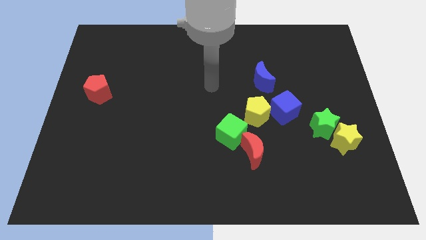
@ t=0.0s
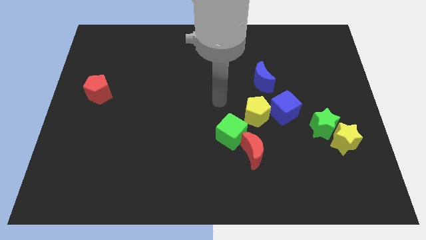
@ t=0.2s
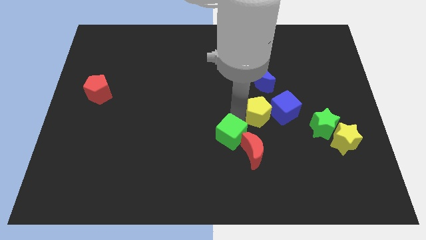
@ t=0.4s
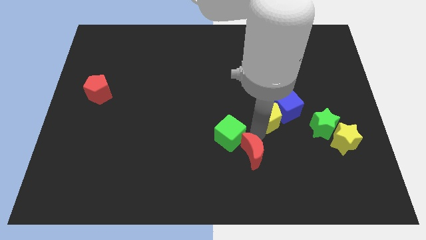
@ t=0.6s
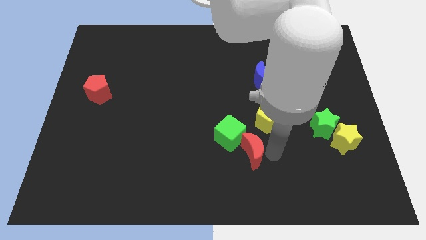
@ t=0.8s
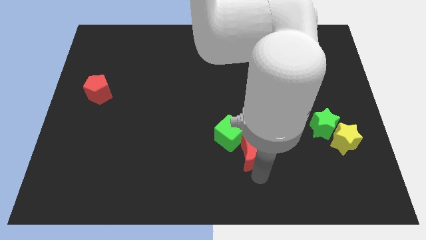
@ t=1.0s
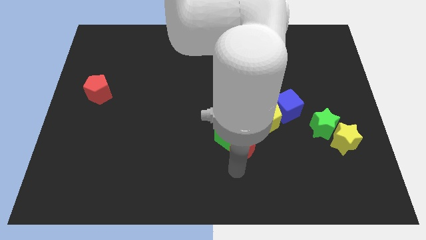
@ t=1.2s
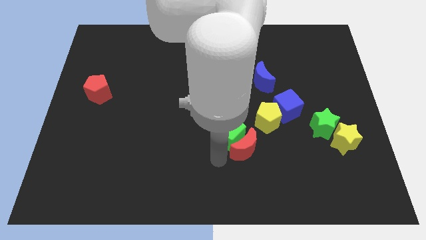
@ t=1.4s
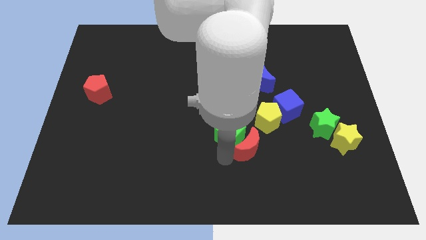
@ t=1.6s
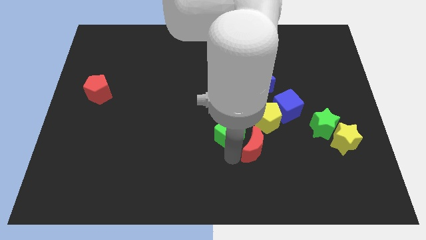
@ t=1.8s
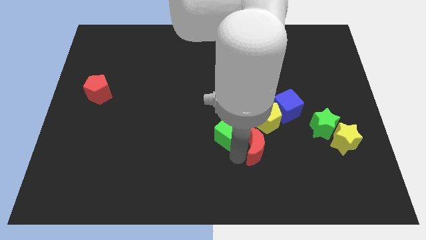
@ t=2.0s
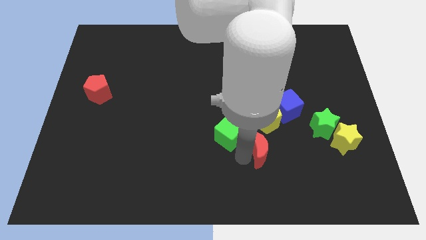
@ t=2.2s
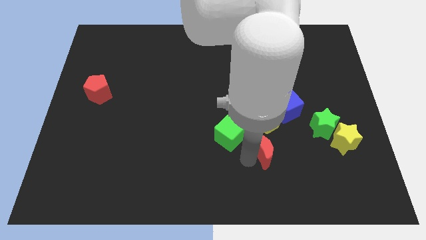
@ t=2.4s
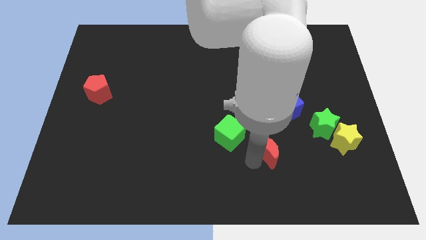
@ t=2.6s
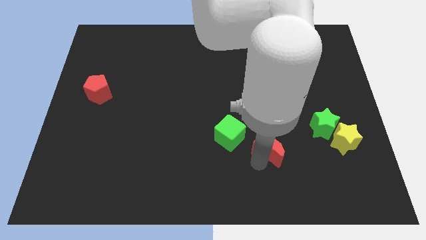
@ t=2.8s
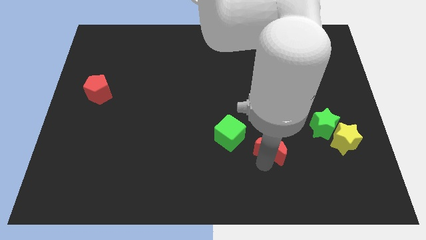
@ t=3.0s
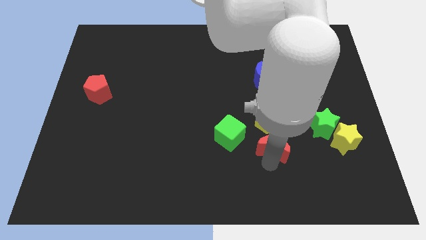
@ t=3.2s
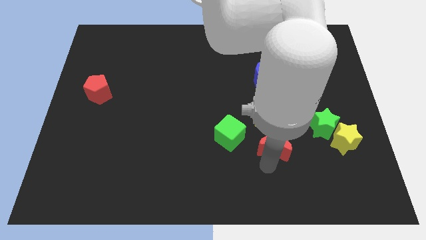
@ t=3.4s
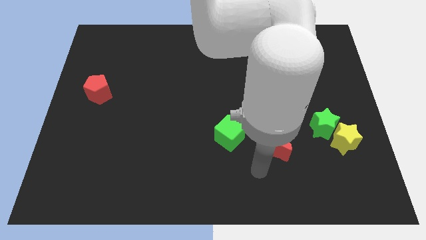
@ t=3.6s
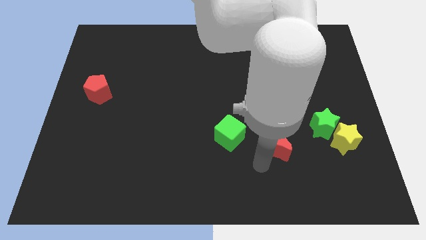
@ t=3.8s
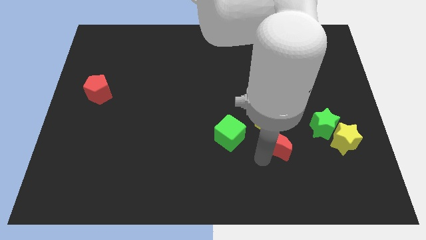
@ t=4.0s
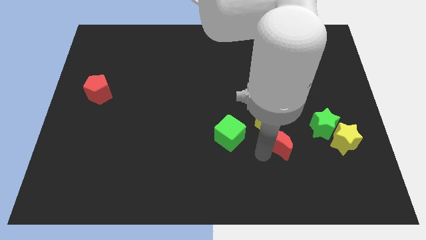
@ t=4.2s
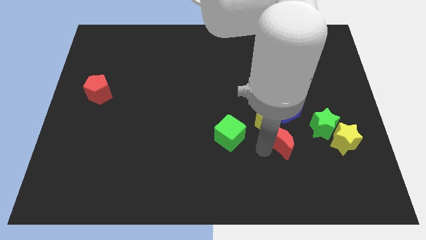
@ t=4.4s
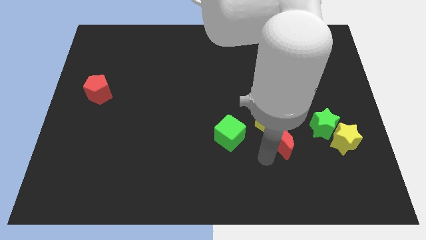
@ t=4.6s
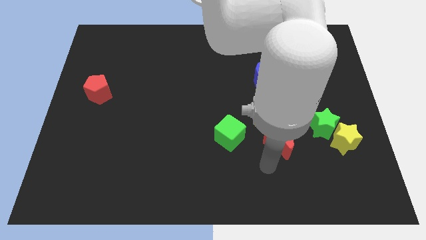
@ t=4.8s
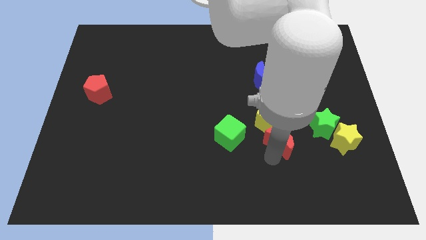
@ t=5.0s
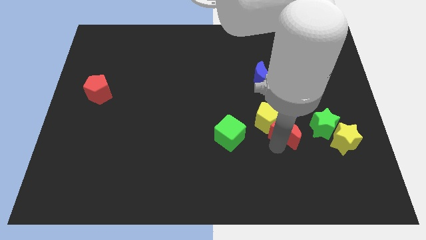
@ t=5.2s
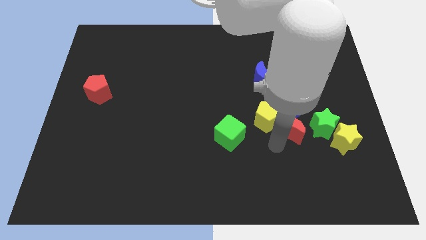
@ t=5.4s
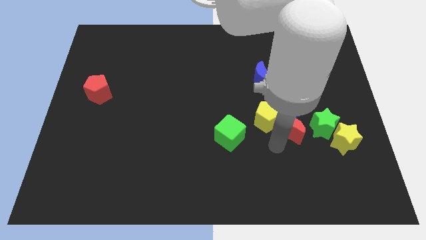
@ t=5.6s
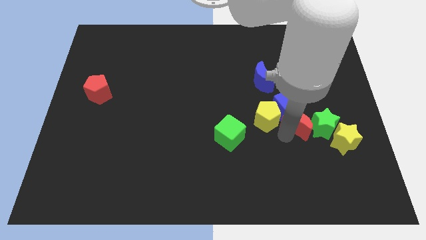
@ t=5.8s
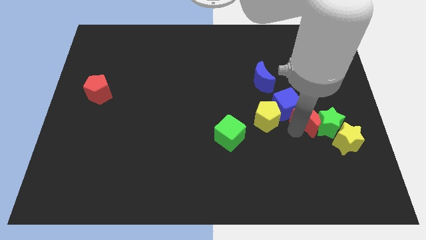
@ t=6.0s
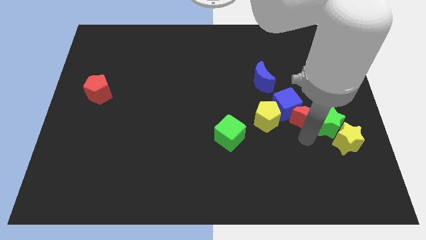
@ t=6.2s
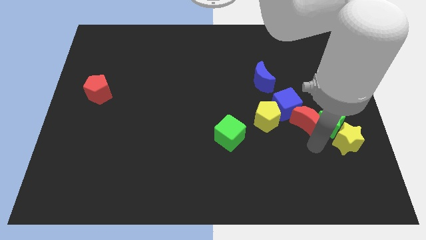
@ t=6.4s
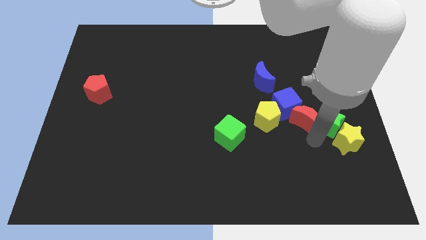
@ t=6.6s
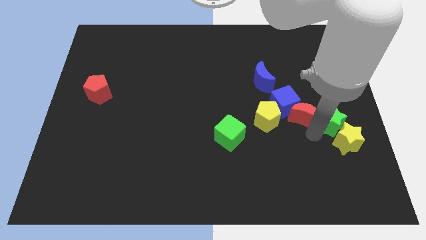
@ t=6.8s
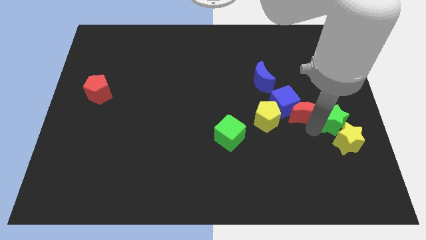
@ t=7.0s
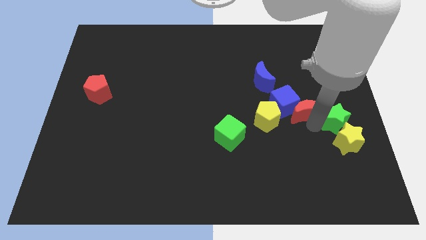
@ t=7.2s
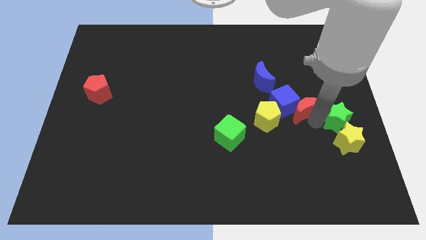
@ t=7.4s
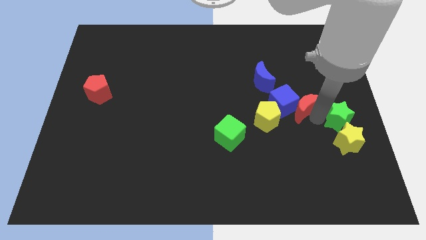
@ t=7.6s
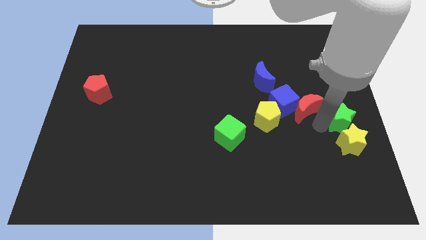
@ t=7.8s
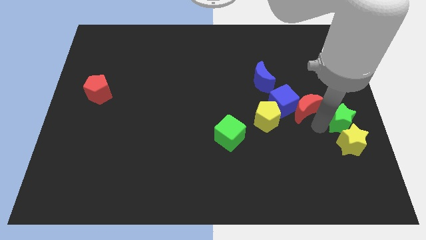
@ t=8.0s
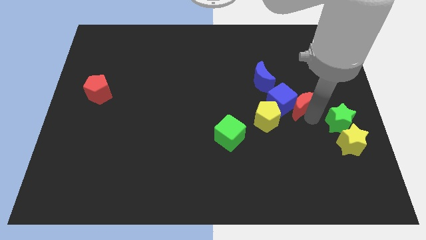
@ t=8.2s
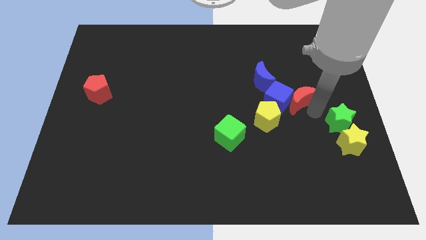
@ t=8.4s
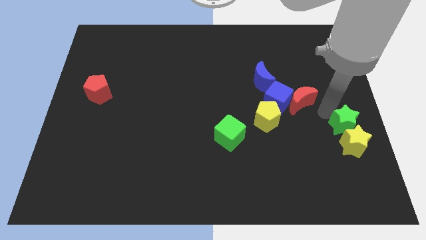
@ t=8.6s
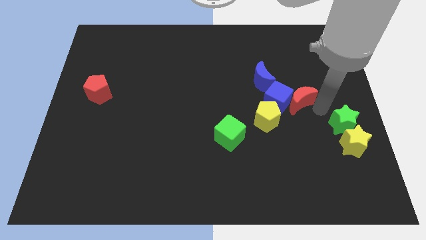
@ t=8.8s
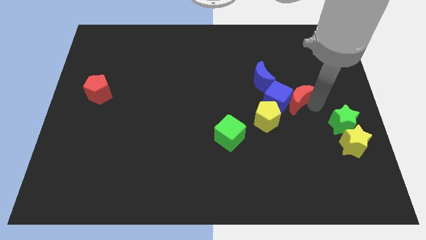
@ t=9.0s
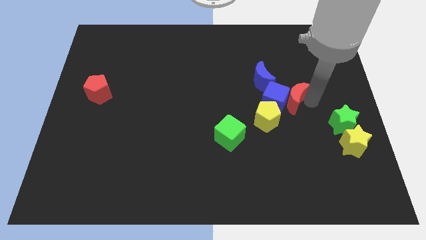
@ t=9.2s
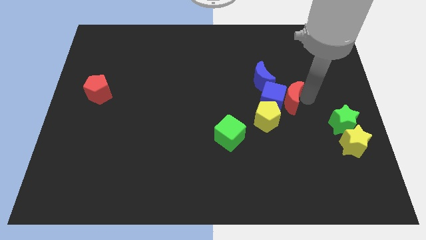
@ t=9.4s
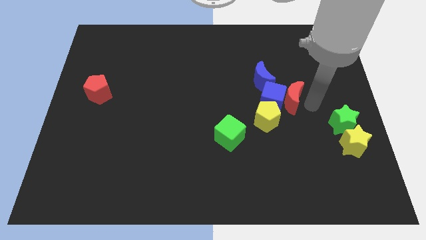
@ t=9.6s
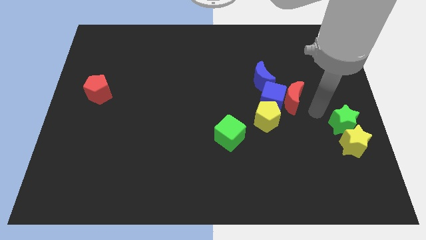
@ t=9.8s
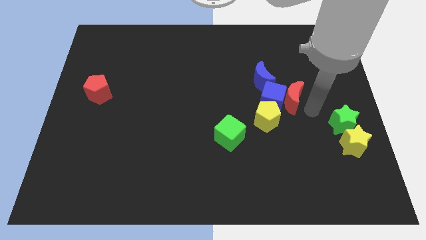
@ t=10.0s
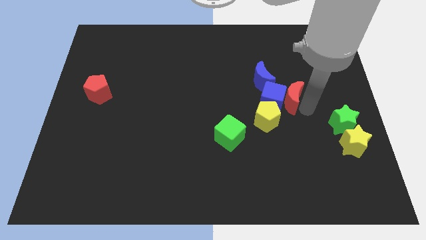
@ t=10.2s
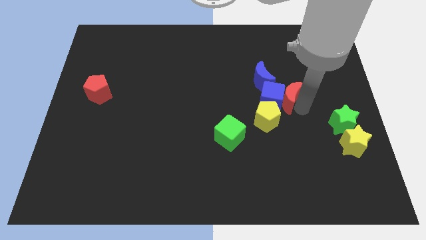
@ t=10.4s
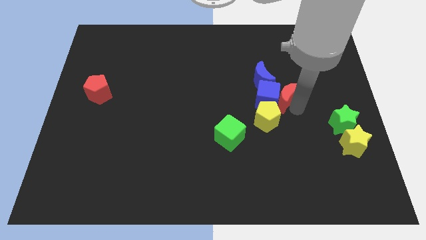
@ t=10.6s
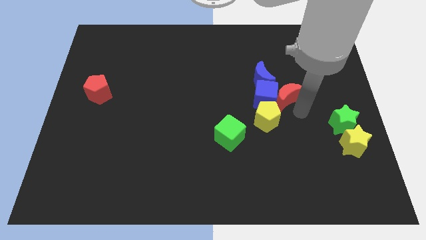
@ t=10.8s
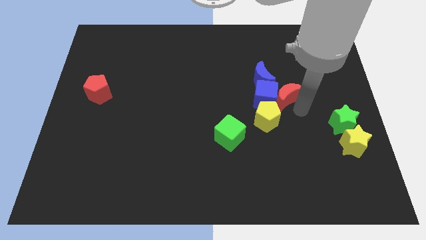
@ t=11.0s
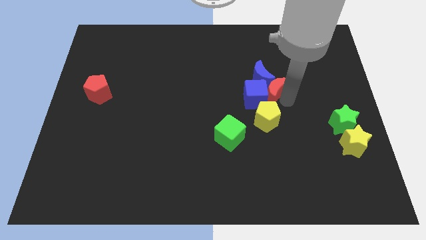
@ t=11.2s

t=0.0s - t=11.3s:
move the red moon to the blue moon

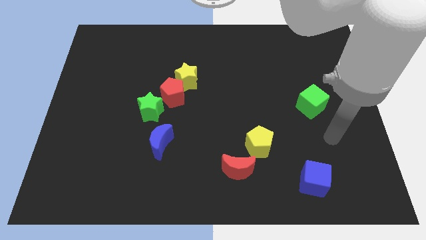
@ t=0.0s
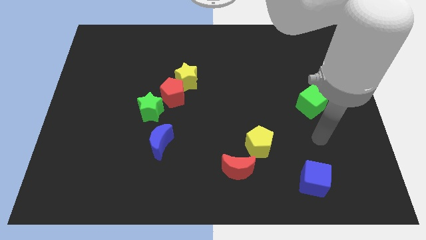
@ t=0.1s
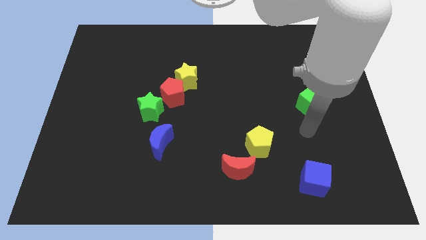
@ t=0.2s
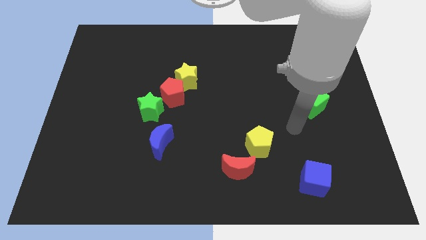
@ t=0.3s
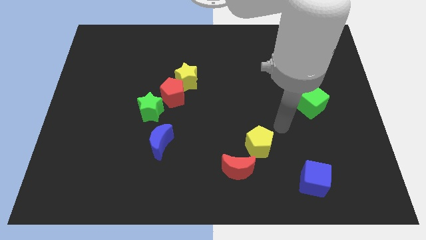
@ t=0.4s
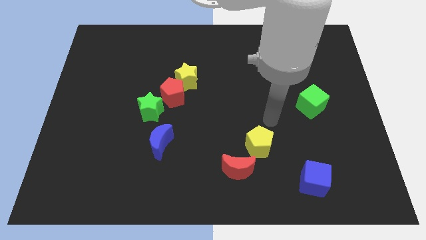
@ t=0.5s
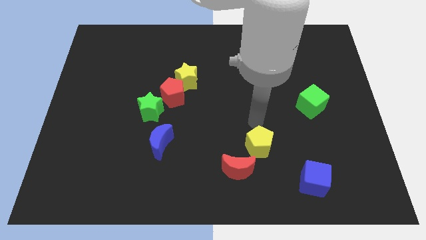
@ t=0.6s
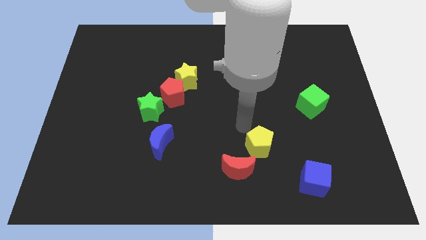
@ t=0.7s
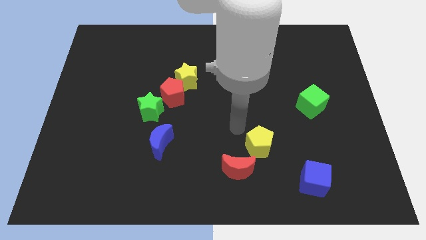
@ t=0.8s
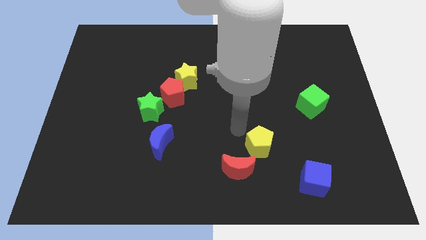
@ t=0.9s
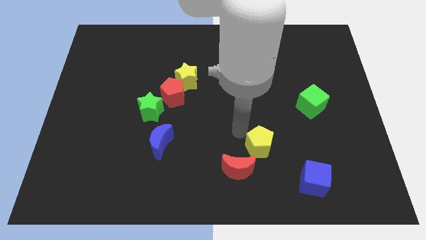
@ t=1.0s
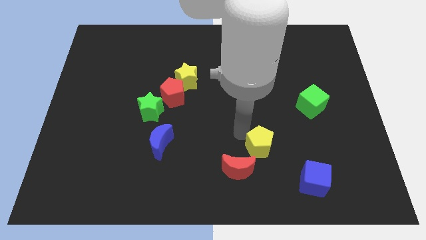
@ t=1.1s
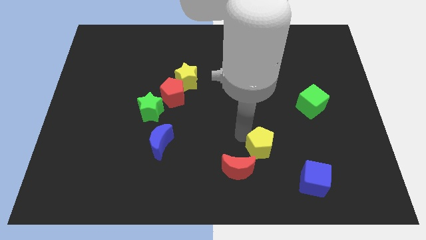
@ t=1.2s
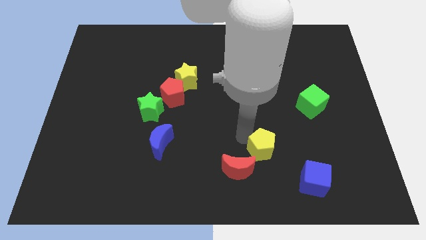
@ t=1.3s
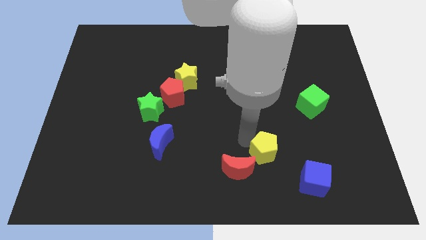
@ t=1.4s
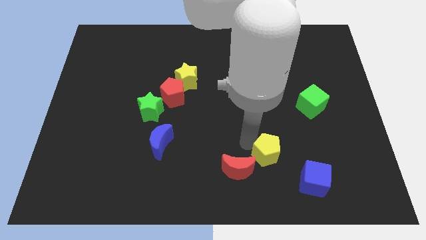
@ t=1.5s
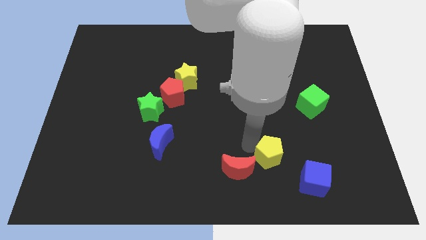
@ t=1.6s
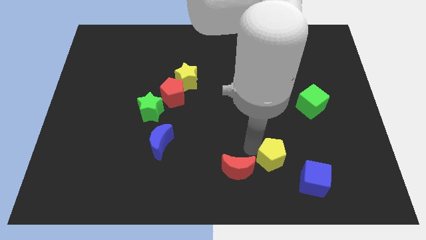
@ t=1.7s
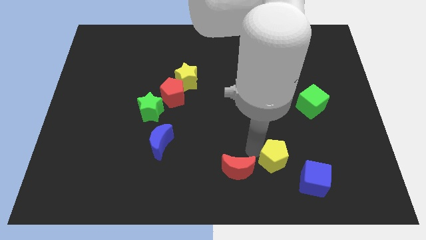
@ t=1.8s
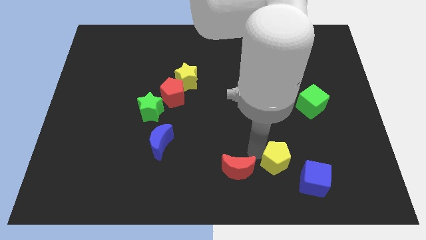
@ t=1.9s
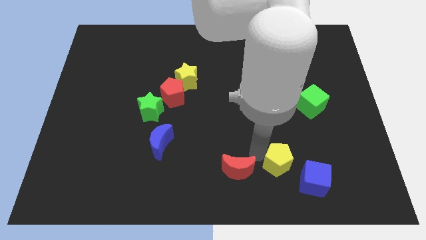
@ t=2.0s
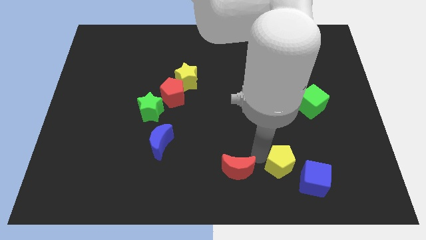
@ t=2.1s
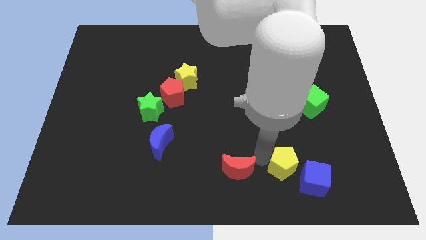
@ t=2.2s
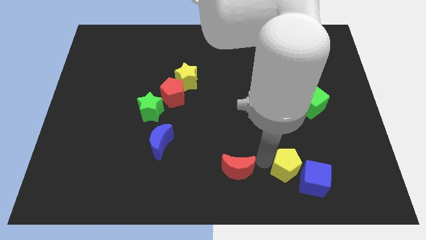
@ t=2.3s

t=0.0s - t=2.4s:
slide the yellow pentagon towards the blue cube
